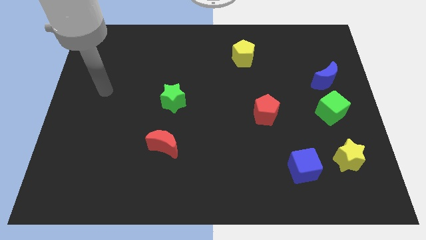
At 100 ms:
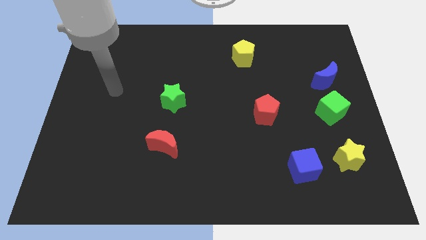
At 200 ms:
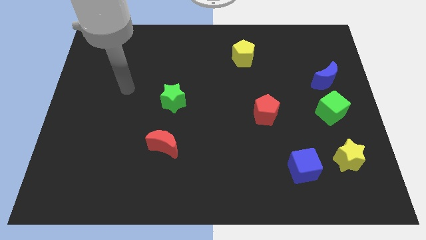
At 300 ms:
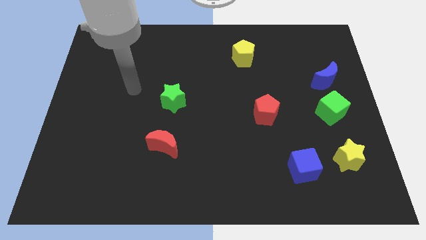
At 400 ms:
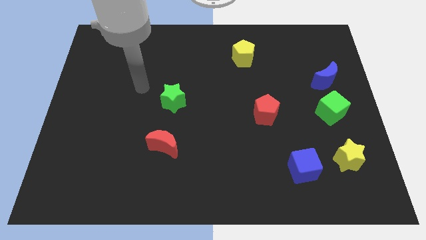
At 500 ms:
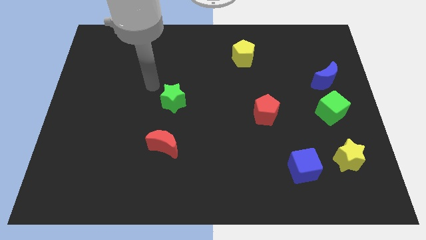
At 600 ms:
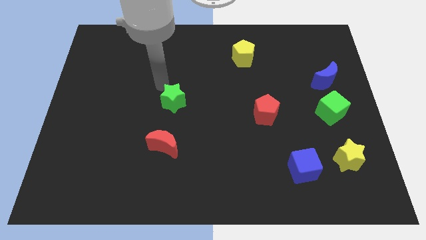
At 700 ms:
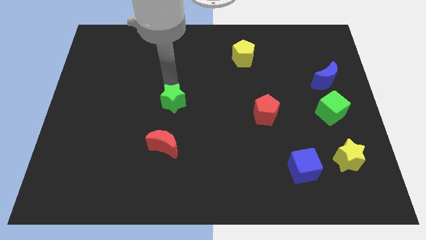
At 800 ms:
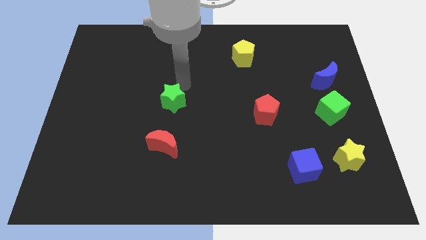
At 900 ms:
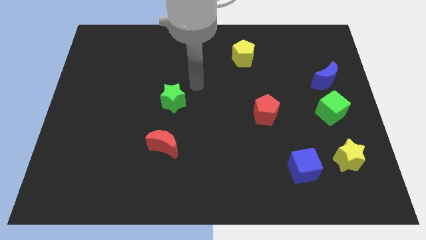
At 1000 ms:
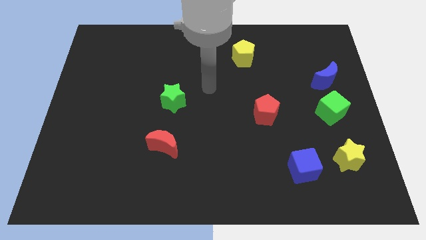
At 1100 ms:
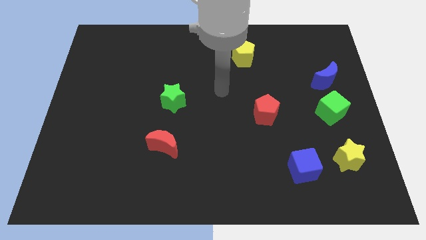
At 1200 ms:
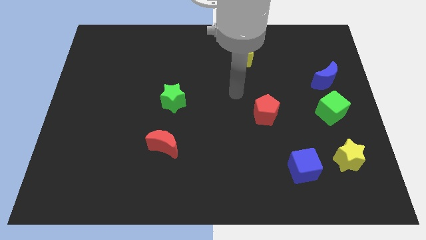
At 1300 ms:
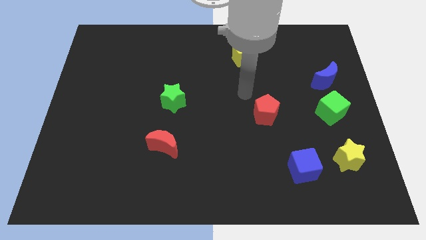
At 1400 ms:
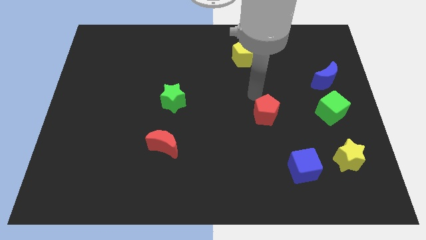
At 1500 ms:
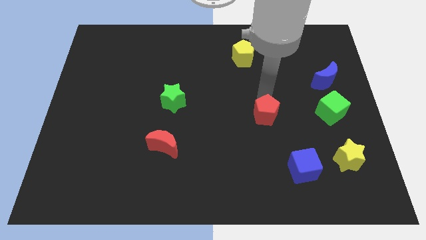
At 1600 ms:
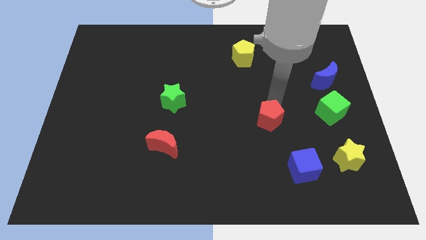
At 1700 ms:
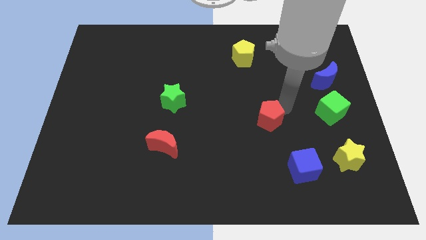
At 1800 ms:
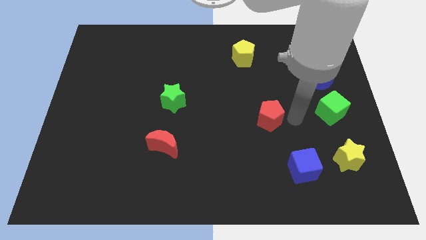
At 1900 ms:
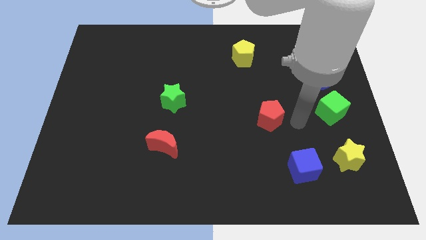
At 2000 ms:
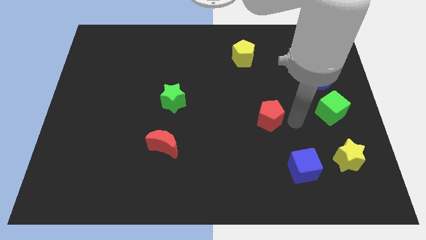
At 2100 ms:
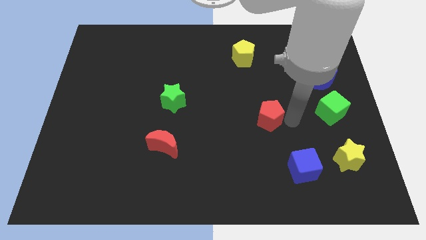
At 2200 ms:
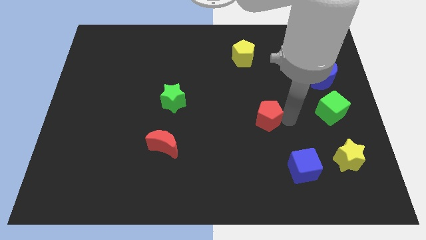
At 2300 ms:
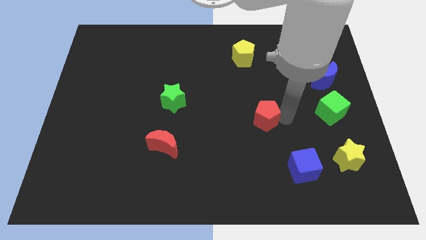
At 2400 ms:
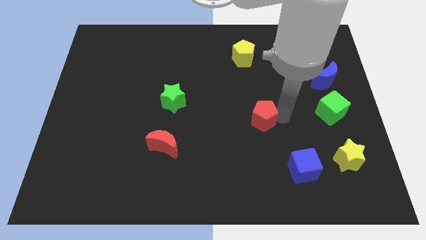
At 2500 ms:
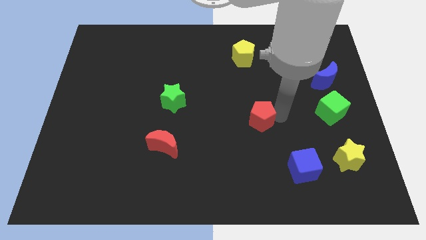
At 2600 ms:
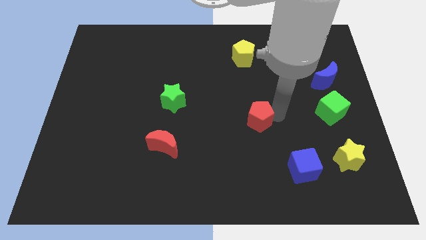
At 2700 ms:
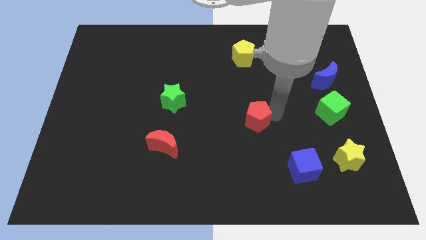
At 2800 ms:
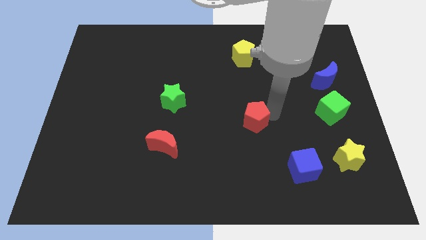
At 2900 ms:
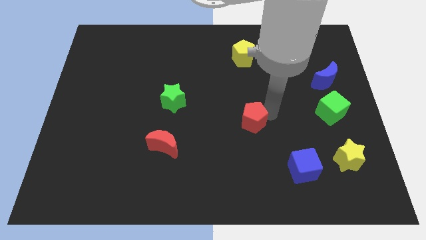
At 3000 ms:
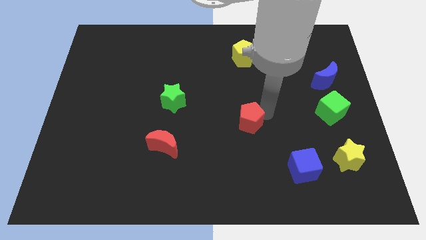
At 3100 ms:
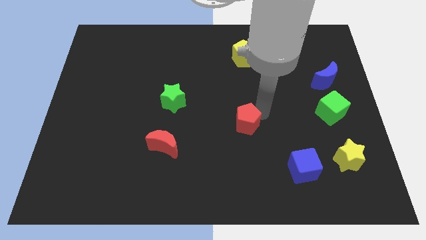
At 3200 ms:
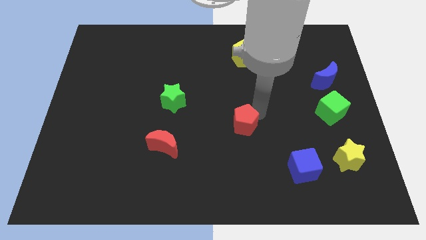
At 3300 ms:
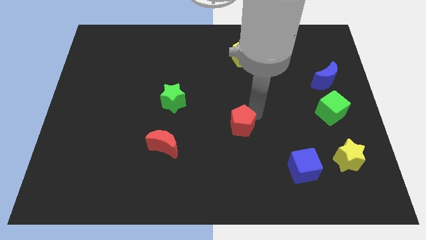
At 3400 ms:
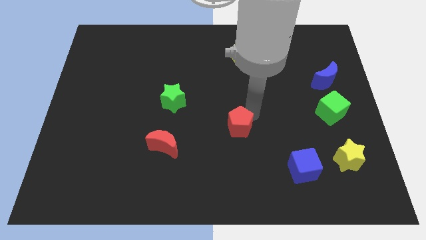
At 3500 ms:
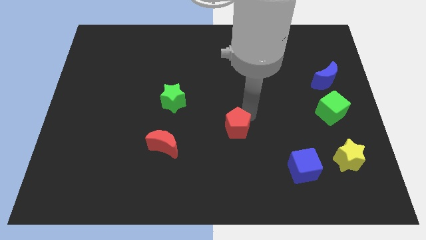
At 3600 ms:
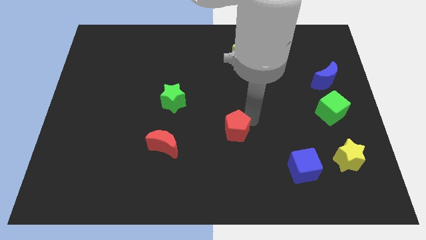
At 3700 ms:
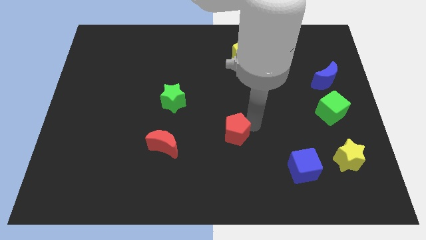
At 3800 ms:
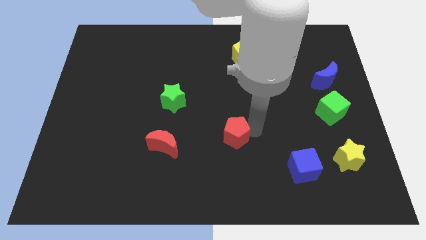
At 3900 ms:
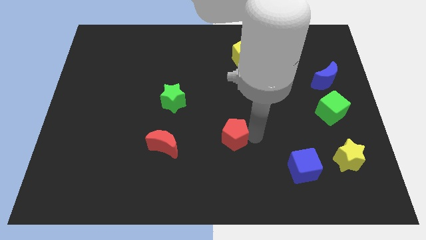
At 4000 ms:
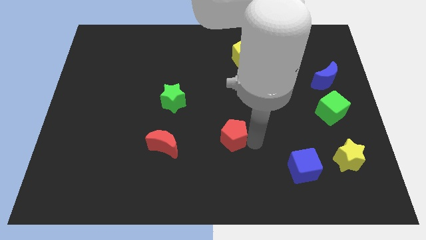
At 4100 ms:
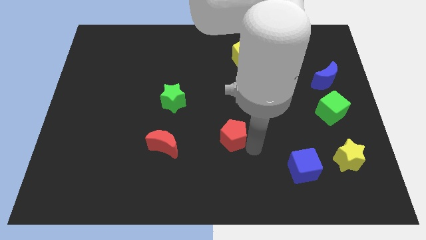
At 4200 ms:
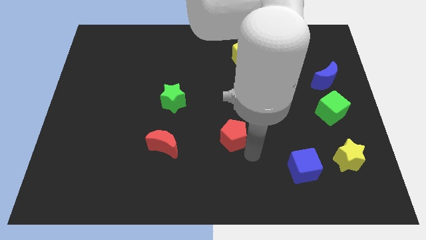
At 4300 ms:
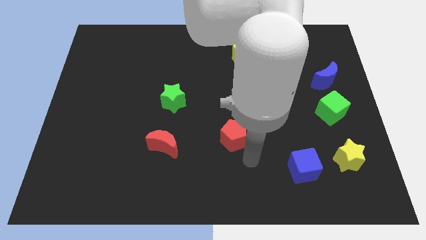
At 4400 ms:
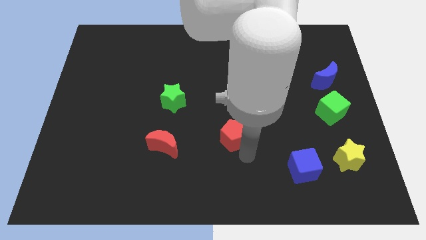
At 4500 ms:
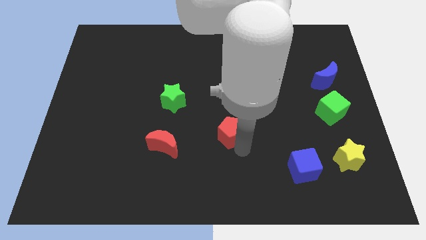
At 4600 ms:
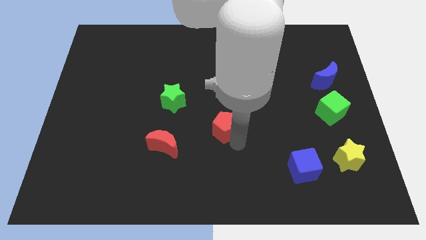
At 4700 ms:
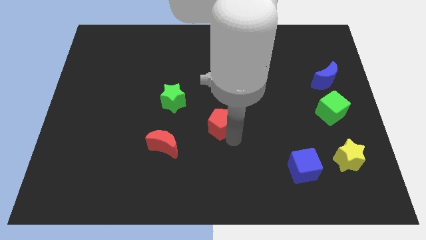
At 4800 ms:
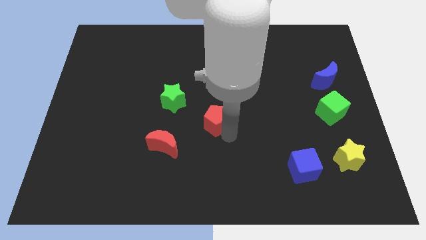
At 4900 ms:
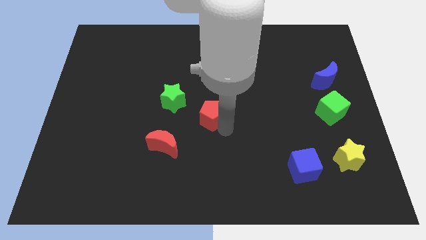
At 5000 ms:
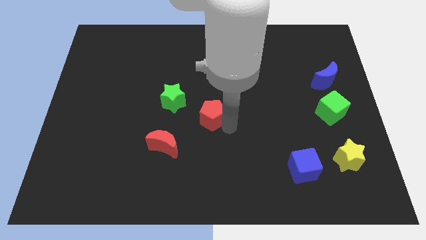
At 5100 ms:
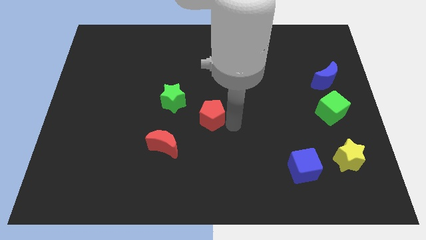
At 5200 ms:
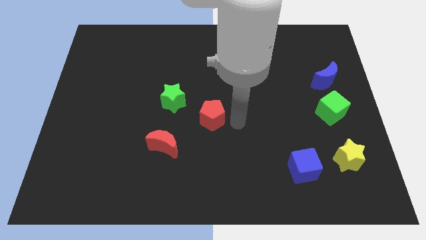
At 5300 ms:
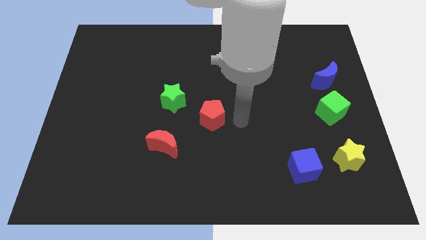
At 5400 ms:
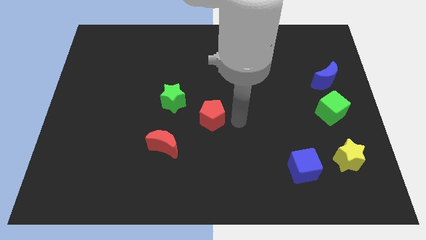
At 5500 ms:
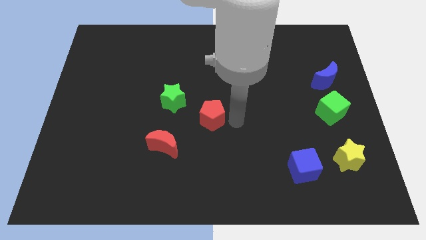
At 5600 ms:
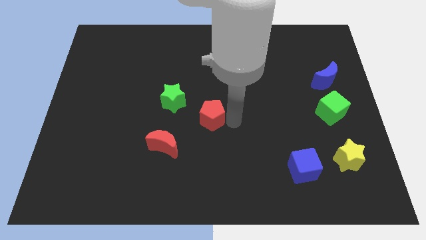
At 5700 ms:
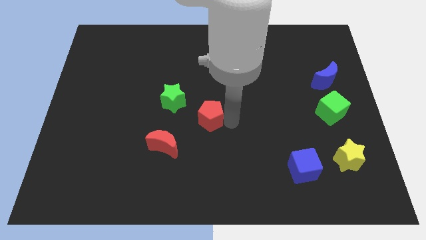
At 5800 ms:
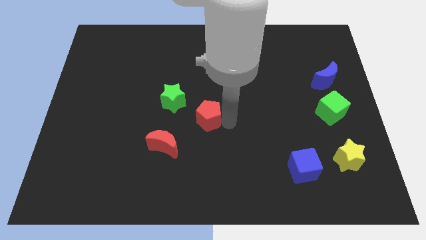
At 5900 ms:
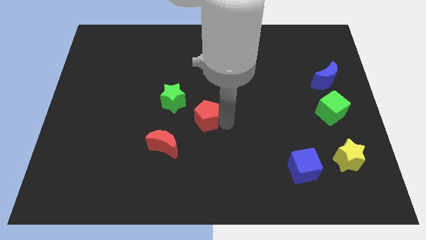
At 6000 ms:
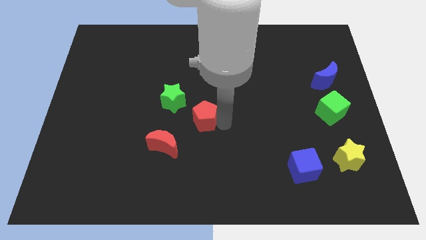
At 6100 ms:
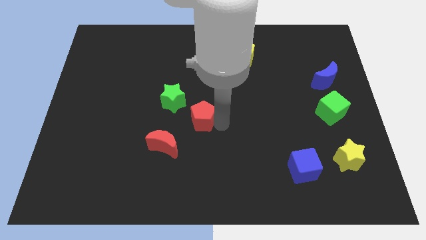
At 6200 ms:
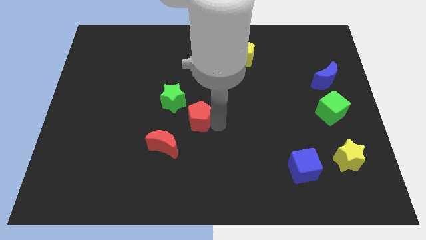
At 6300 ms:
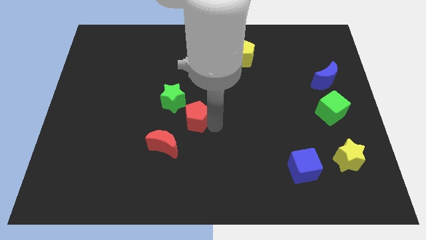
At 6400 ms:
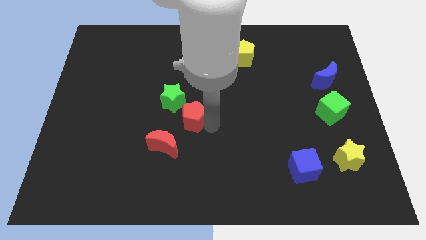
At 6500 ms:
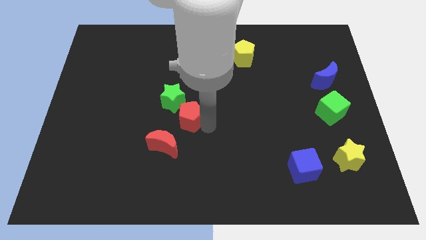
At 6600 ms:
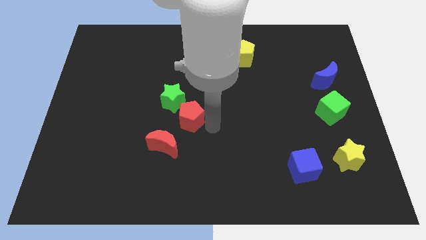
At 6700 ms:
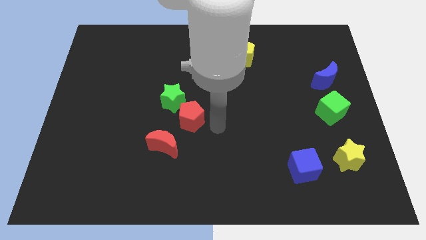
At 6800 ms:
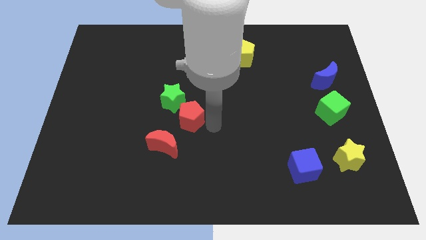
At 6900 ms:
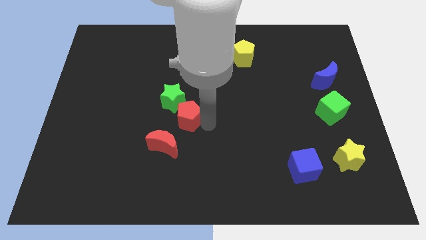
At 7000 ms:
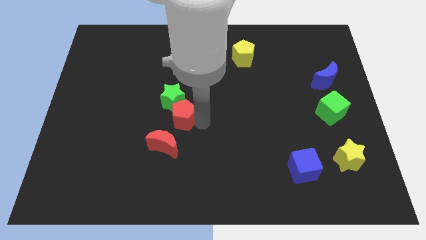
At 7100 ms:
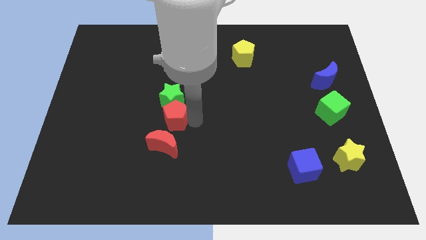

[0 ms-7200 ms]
slide the red pentagon left

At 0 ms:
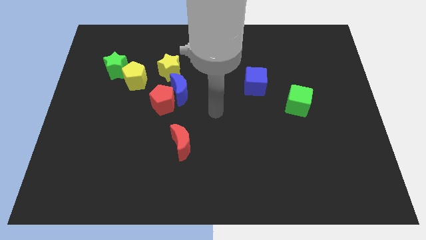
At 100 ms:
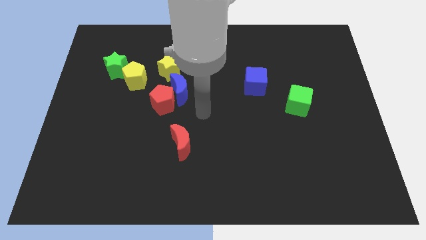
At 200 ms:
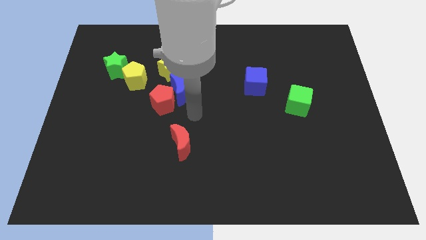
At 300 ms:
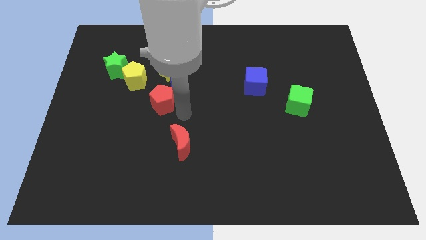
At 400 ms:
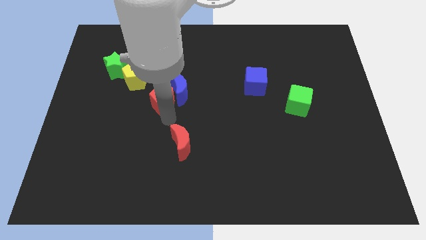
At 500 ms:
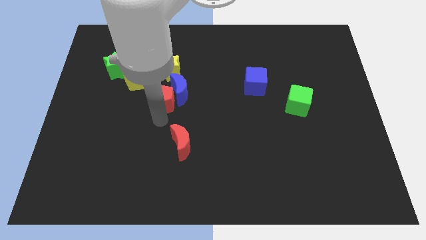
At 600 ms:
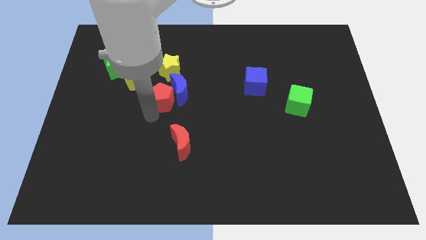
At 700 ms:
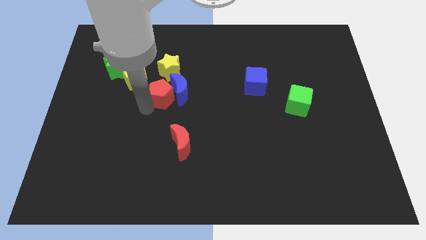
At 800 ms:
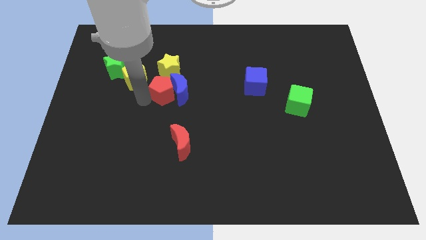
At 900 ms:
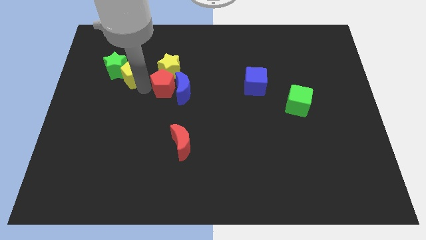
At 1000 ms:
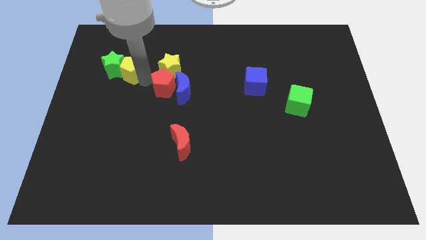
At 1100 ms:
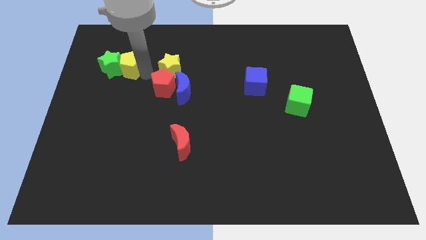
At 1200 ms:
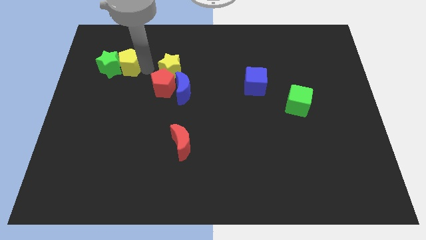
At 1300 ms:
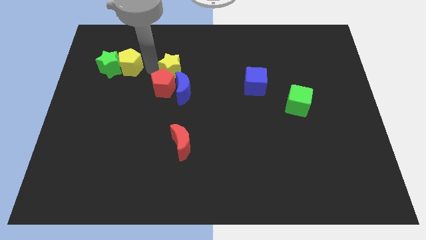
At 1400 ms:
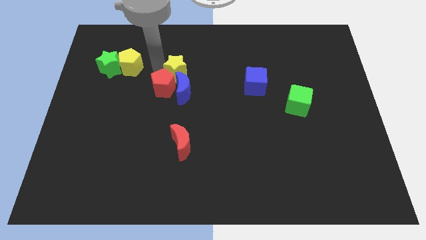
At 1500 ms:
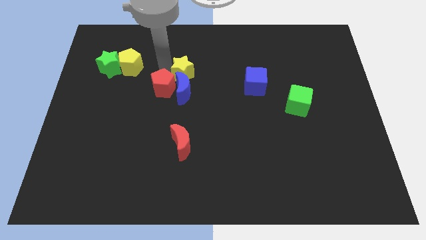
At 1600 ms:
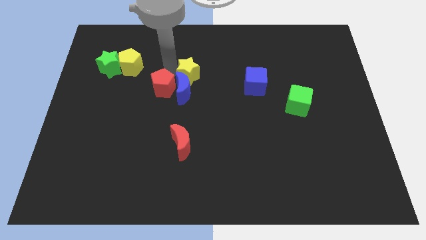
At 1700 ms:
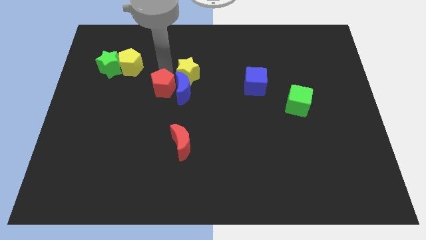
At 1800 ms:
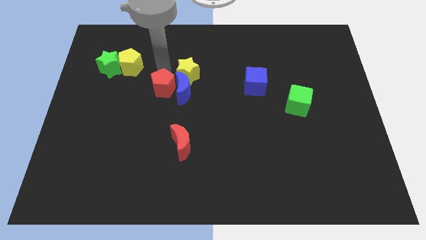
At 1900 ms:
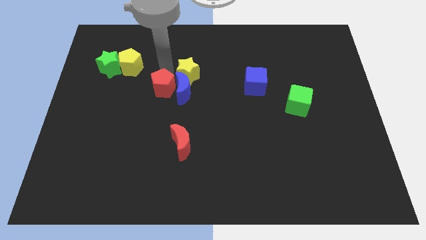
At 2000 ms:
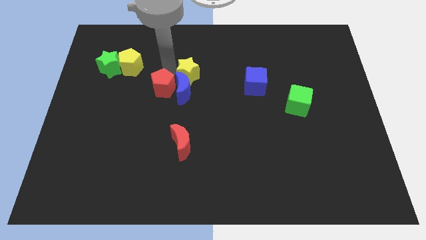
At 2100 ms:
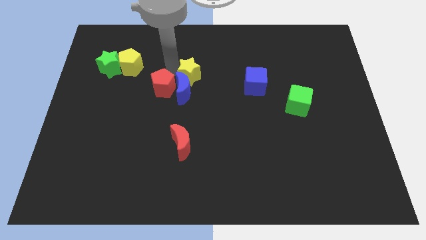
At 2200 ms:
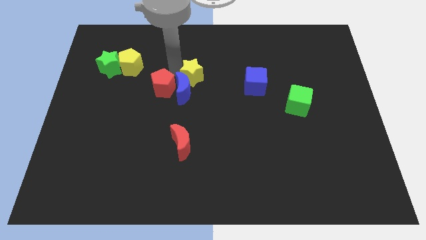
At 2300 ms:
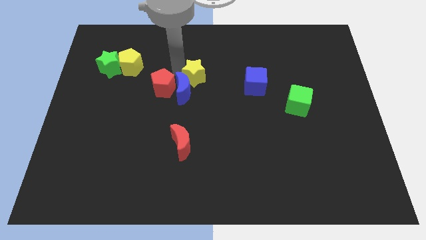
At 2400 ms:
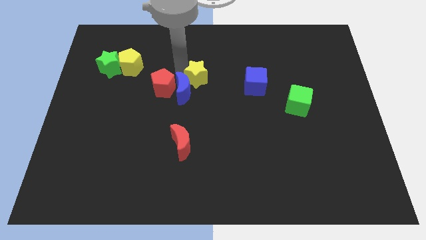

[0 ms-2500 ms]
slightly slide the yellow star right
